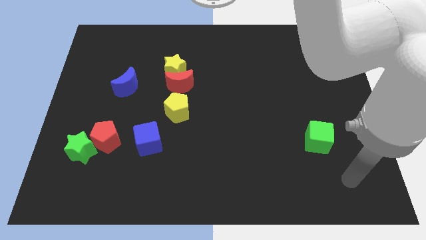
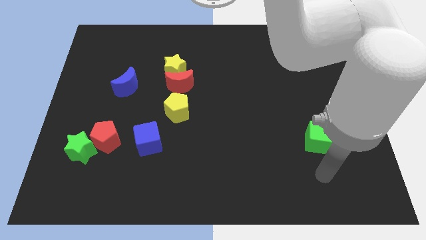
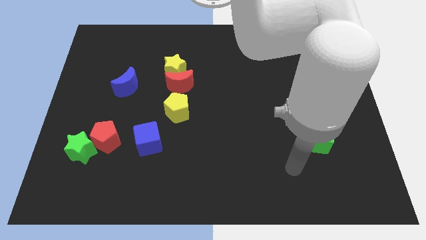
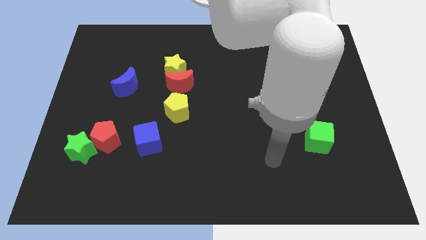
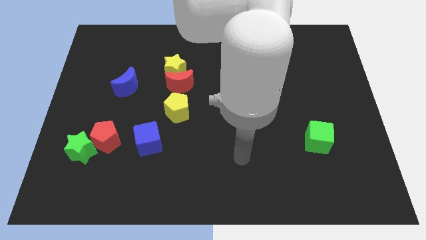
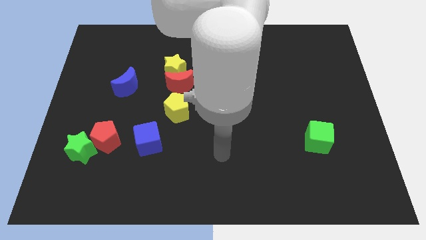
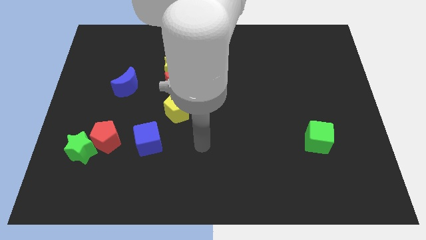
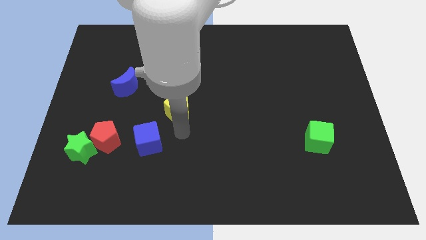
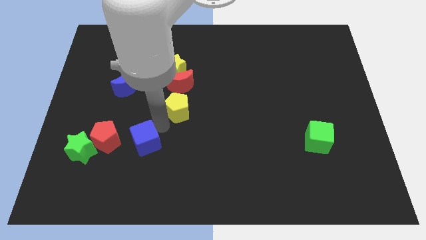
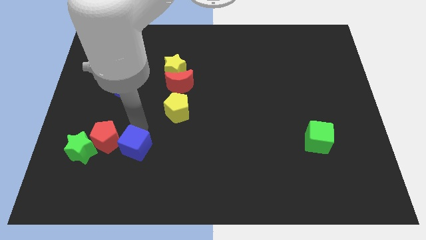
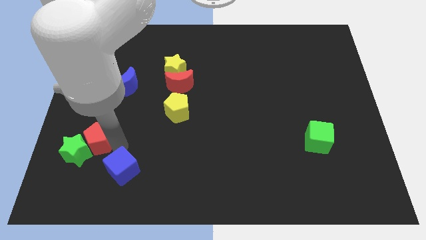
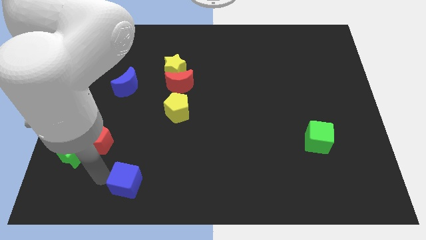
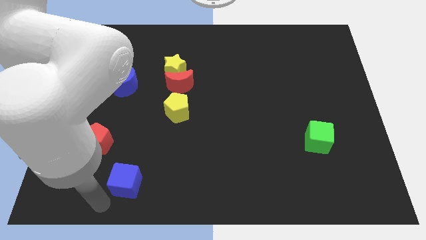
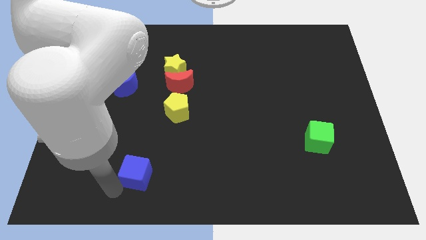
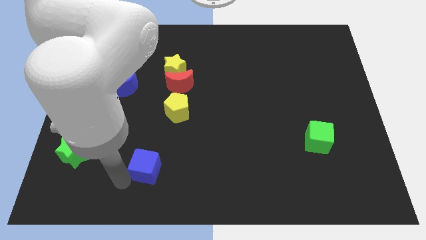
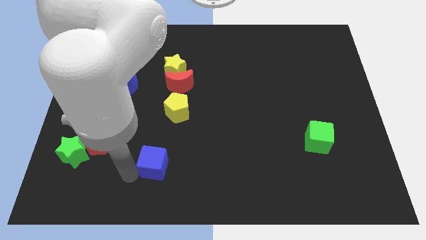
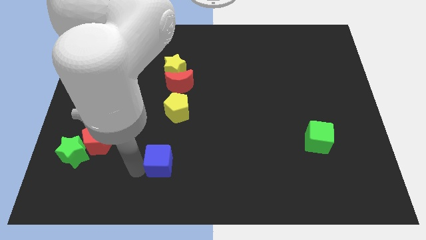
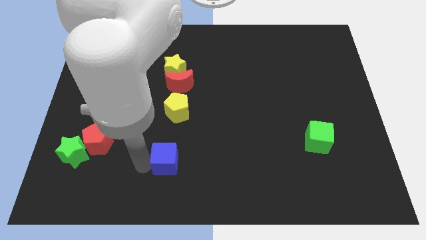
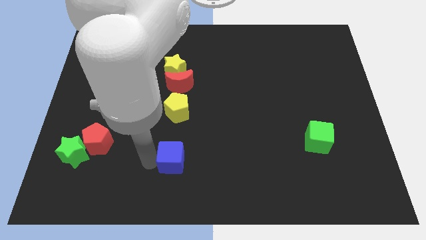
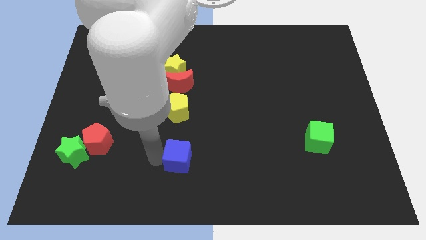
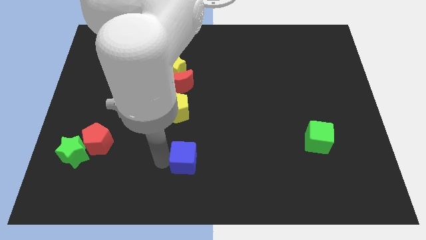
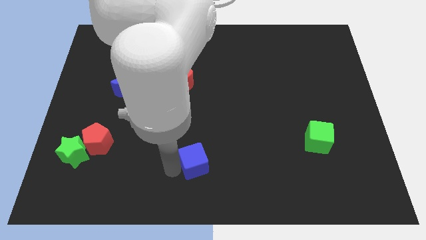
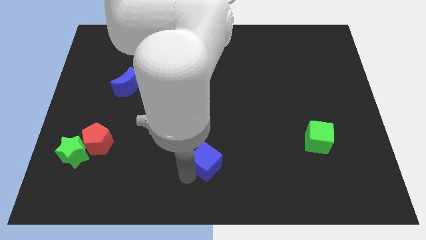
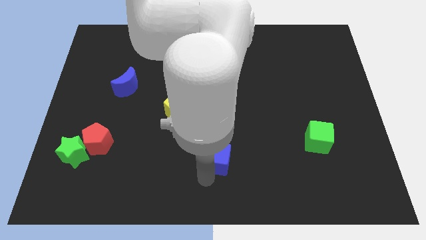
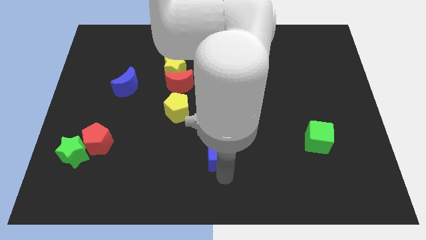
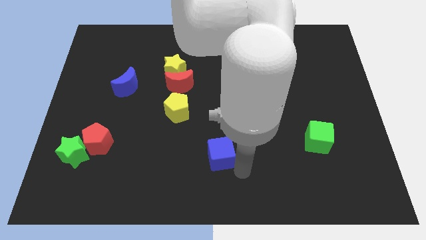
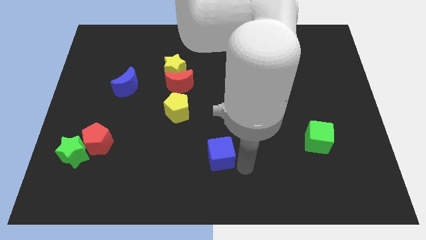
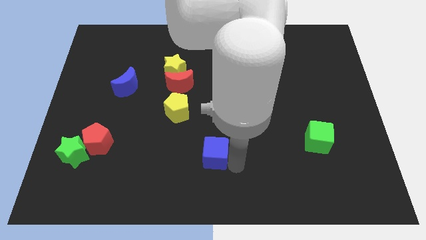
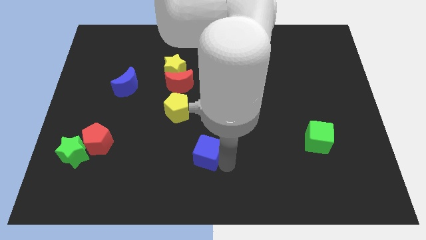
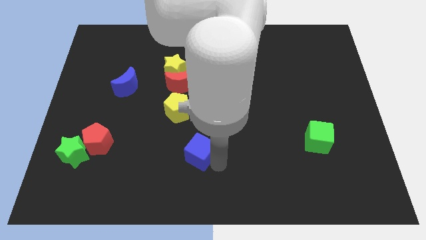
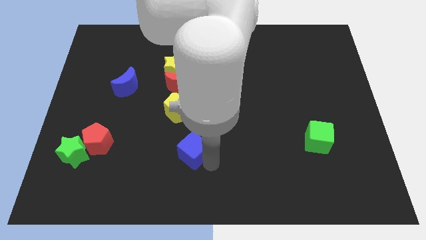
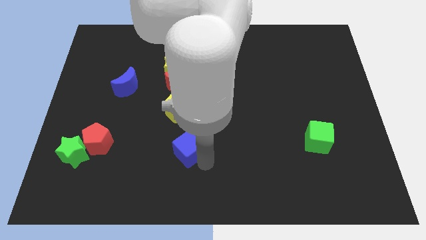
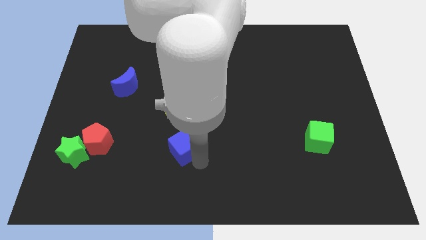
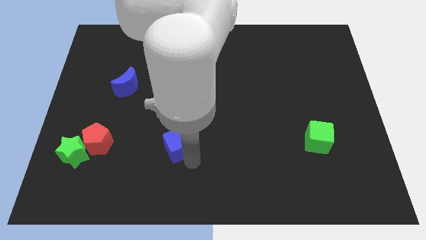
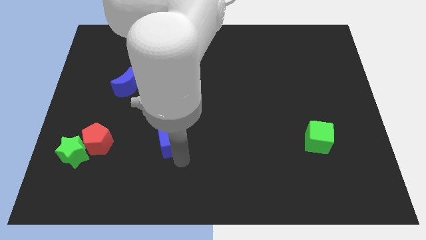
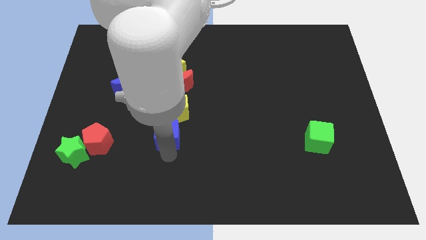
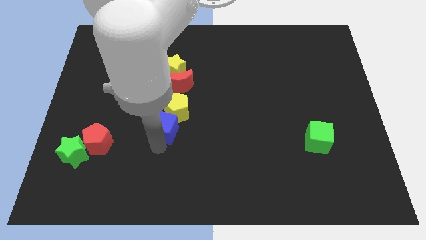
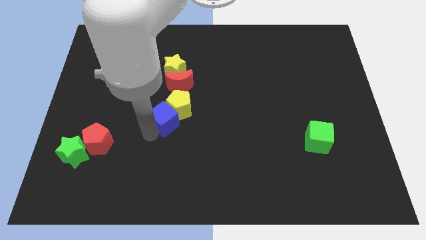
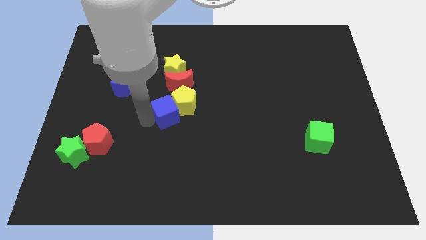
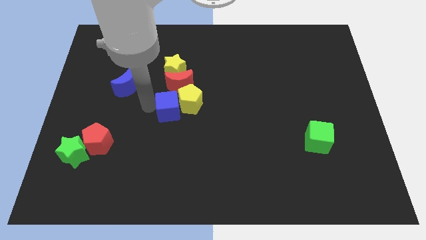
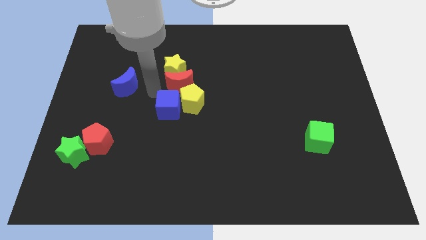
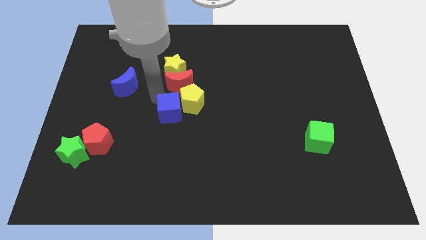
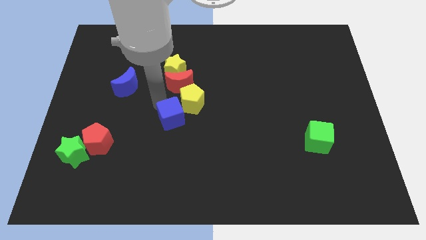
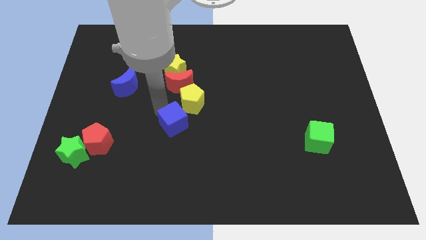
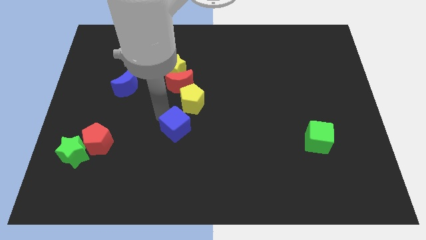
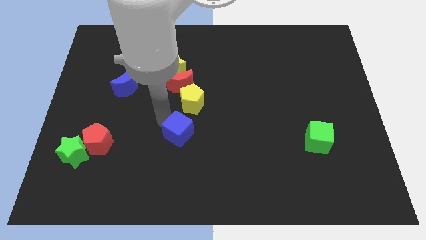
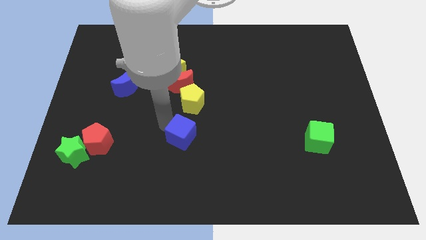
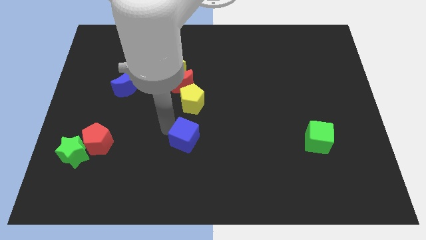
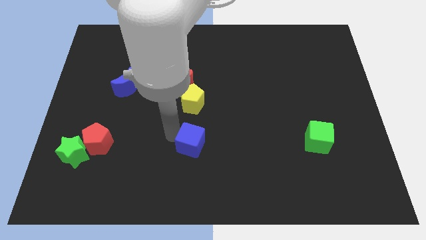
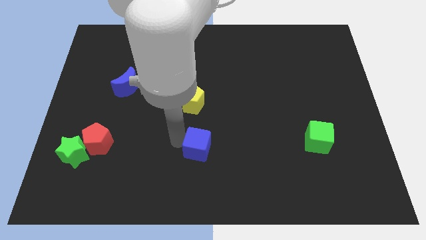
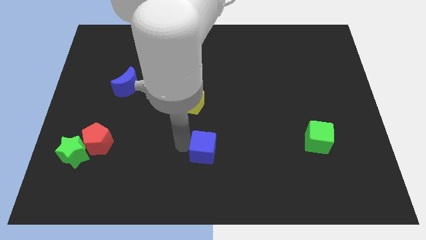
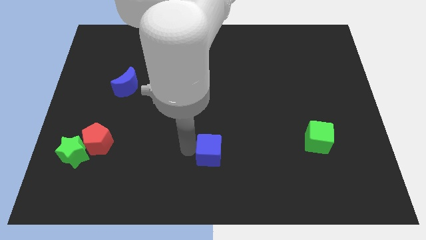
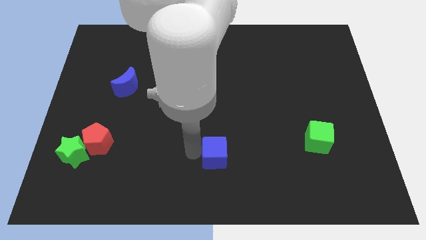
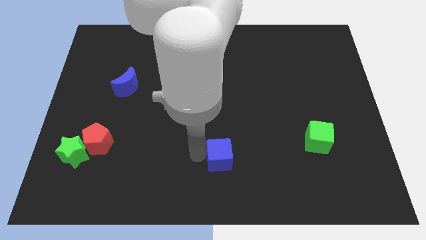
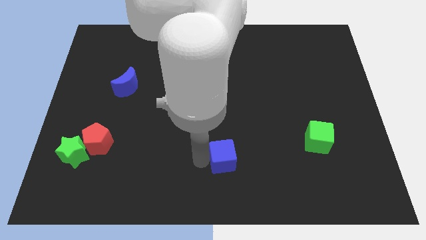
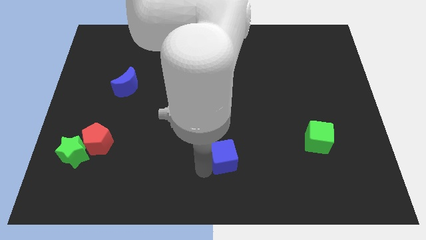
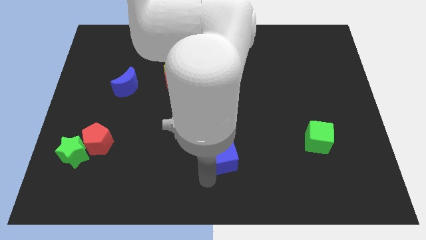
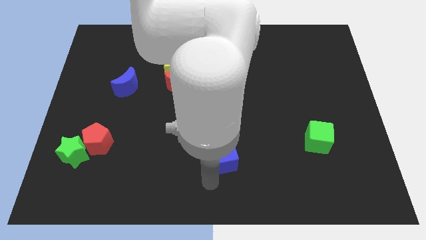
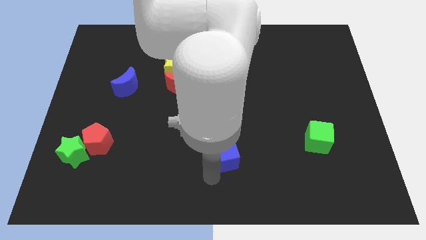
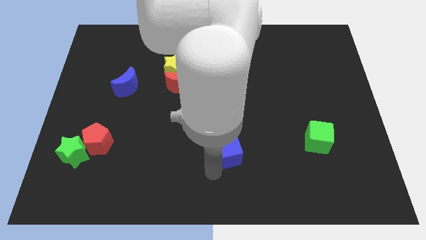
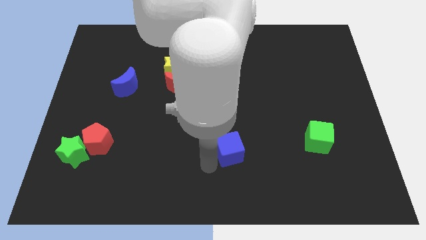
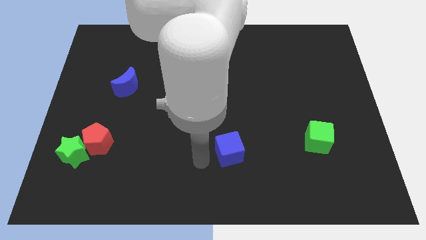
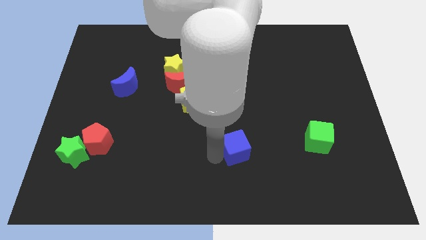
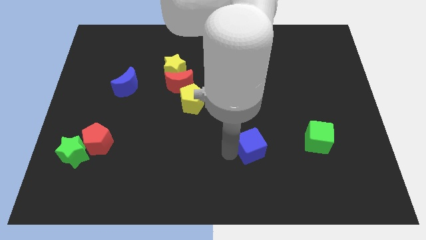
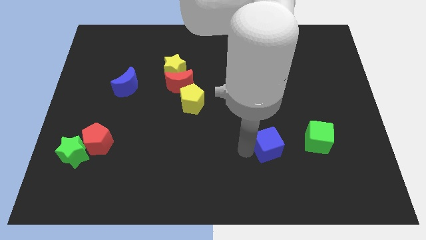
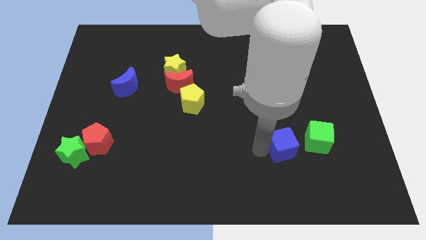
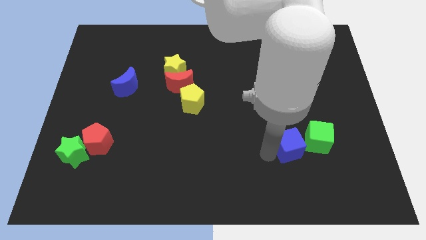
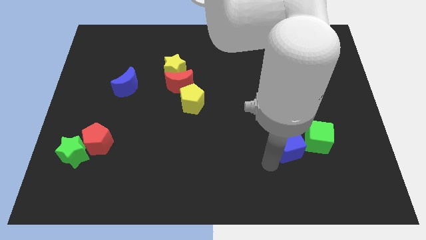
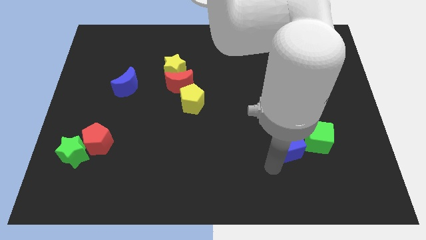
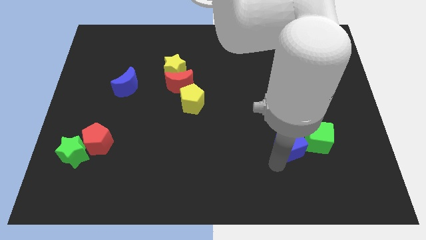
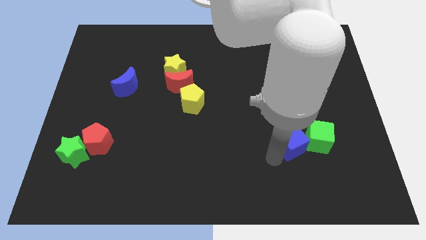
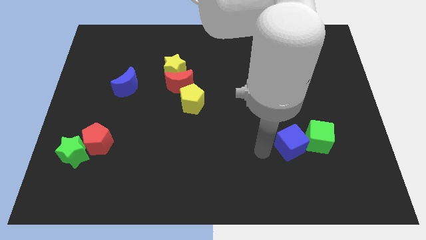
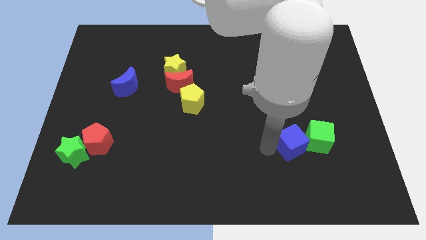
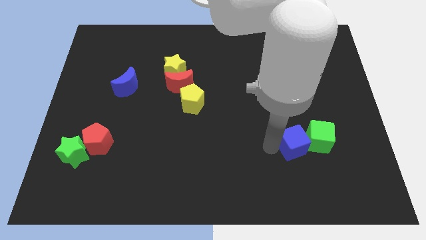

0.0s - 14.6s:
push the blue cube next to the green cube
